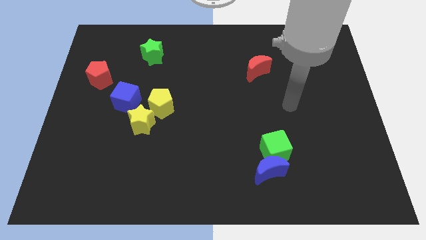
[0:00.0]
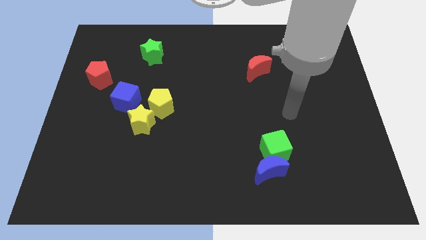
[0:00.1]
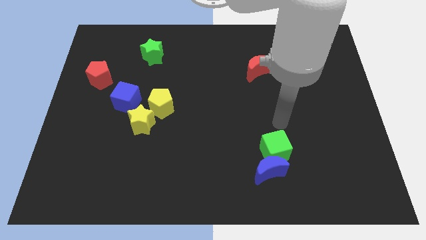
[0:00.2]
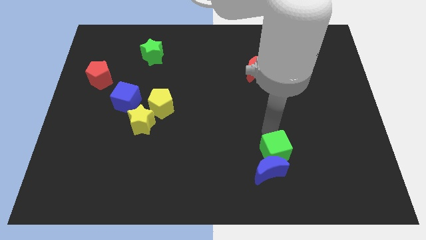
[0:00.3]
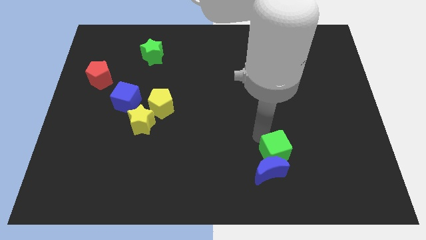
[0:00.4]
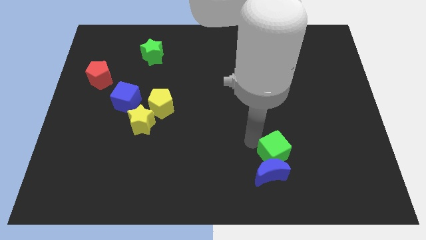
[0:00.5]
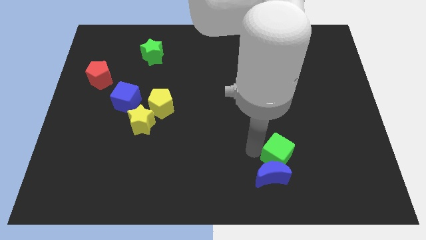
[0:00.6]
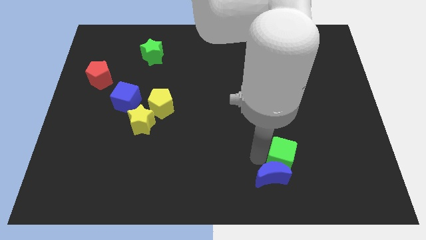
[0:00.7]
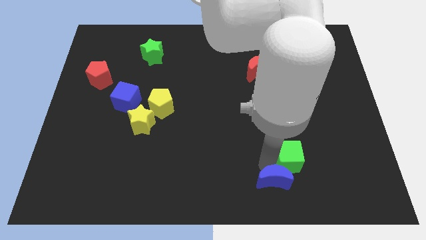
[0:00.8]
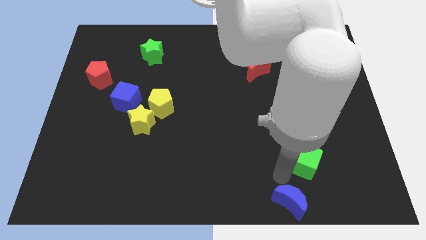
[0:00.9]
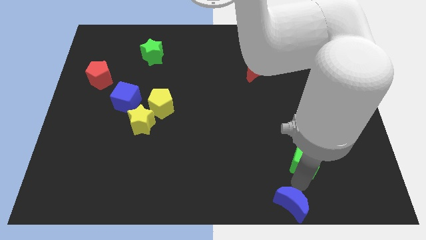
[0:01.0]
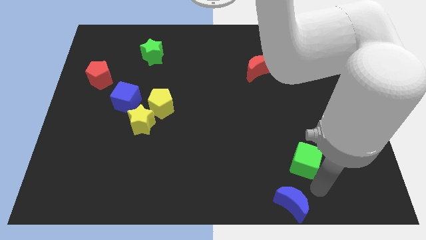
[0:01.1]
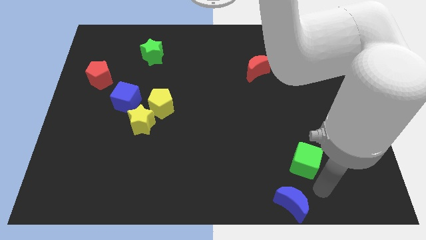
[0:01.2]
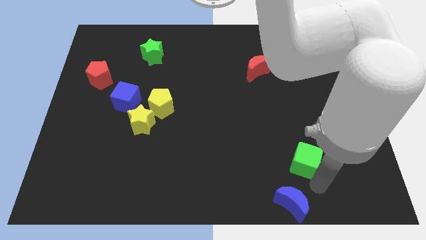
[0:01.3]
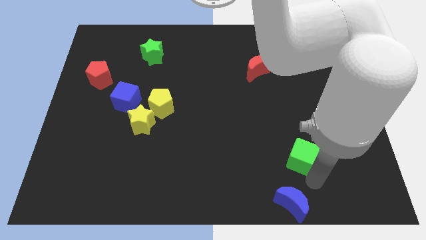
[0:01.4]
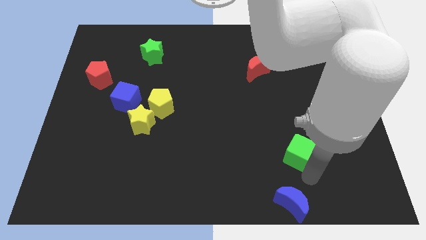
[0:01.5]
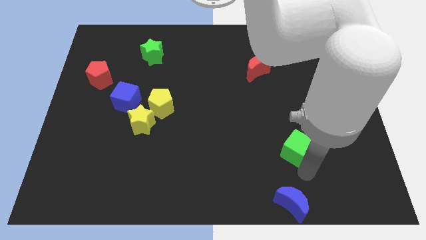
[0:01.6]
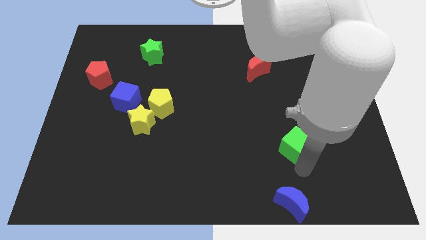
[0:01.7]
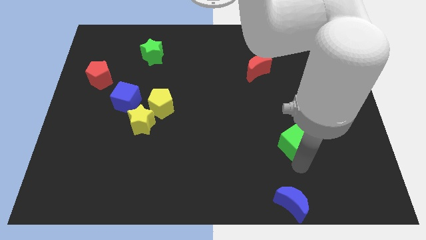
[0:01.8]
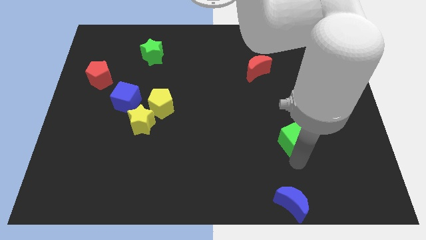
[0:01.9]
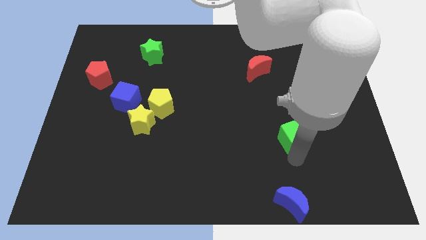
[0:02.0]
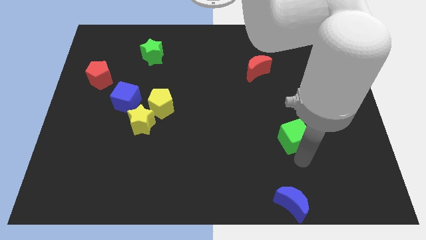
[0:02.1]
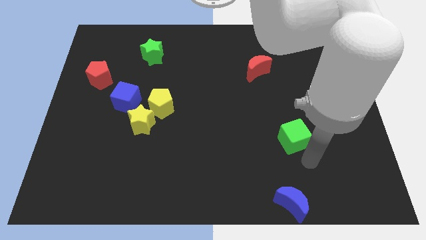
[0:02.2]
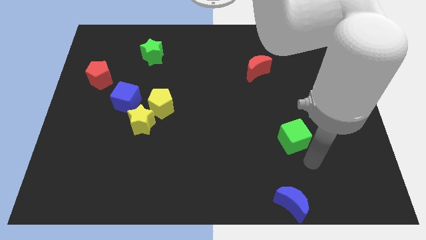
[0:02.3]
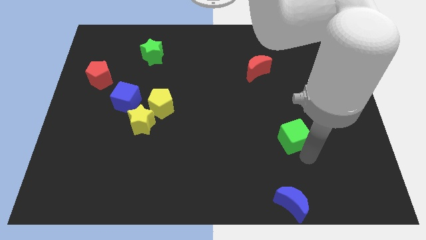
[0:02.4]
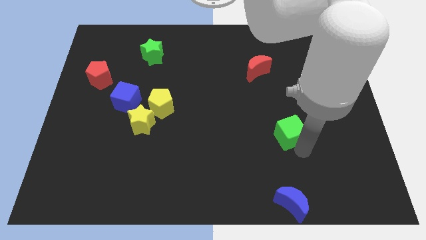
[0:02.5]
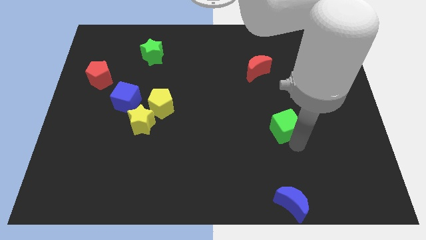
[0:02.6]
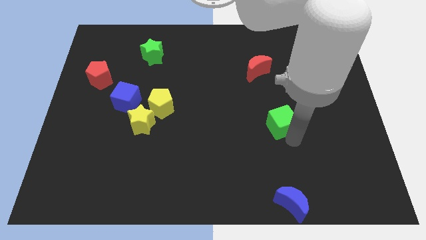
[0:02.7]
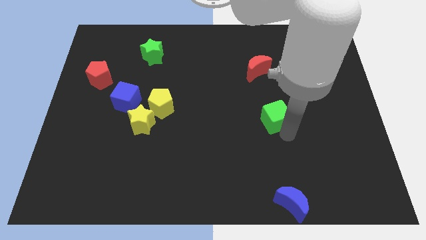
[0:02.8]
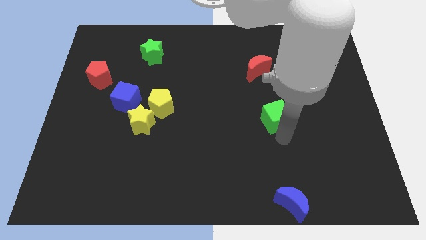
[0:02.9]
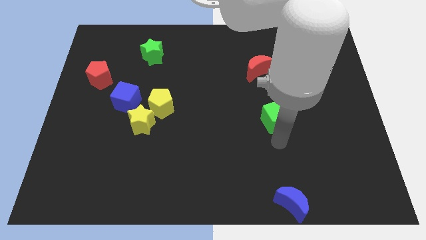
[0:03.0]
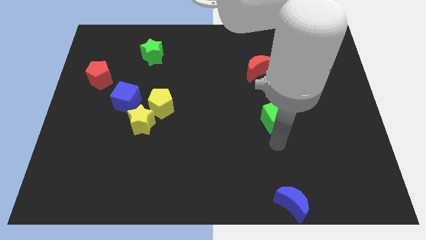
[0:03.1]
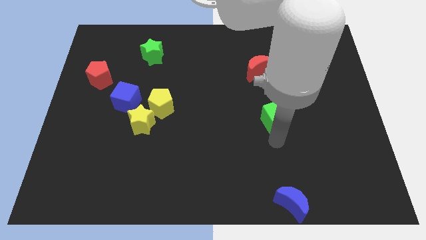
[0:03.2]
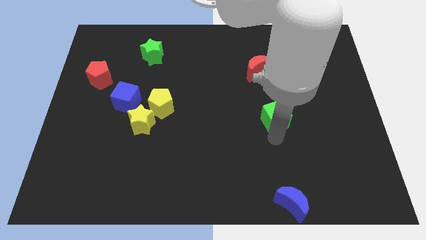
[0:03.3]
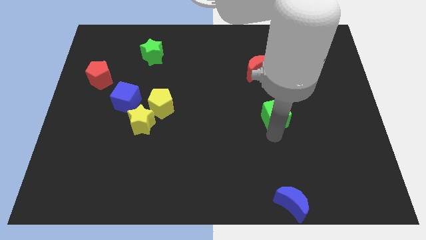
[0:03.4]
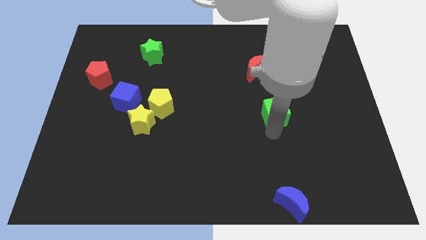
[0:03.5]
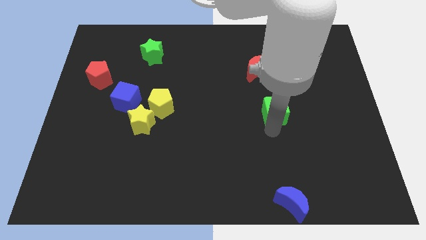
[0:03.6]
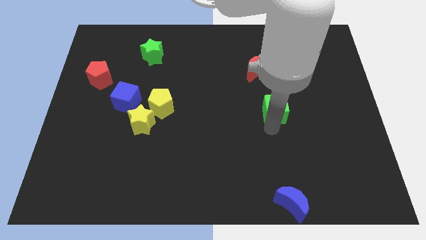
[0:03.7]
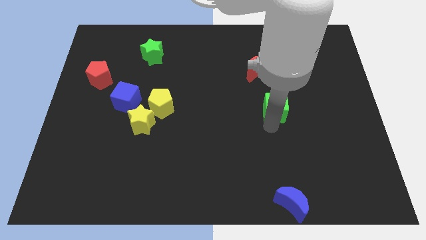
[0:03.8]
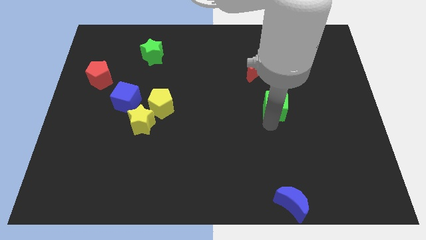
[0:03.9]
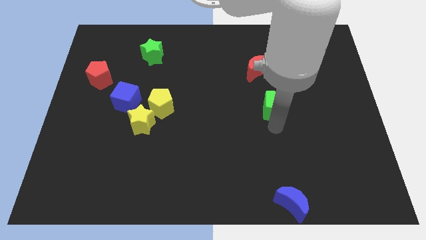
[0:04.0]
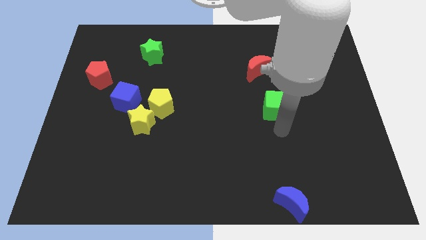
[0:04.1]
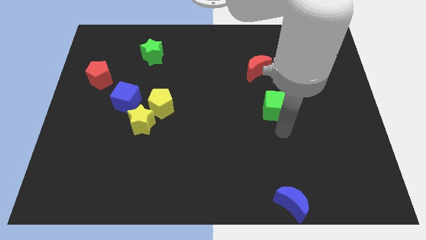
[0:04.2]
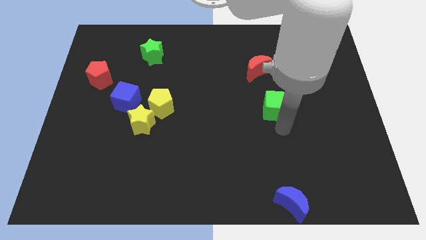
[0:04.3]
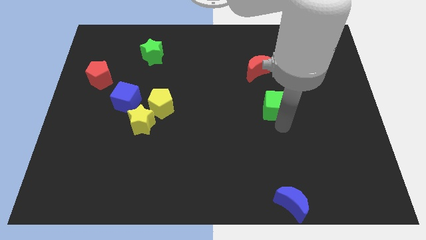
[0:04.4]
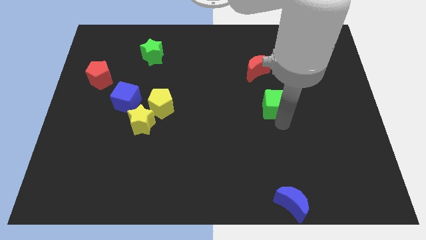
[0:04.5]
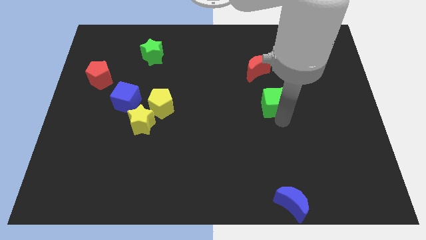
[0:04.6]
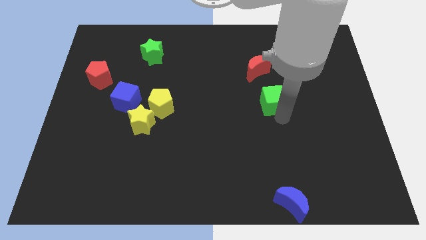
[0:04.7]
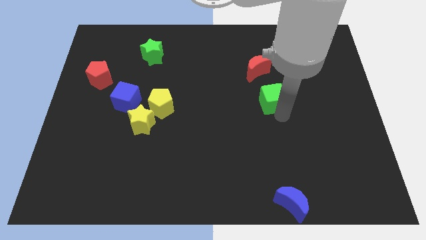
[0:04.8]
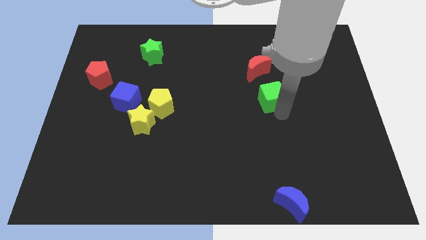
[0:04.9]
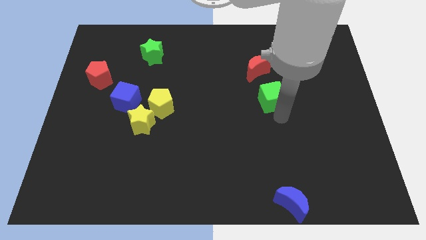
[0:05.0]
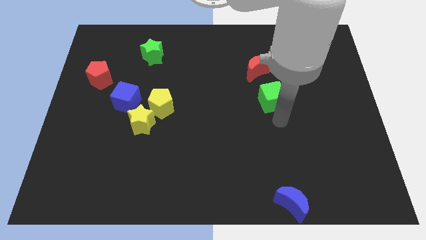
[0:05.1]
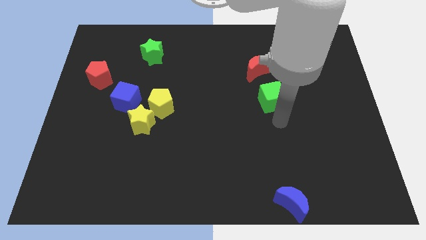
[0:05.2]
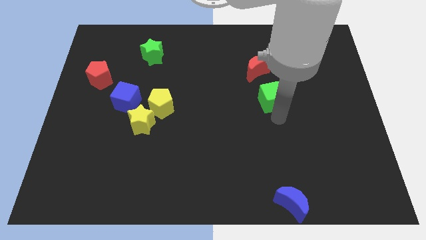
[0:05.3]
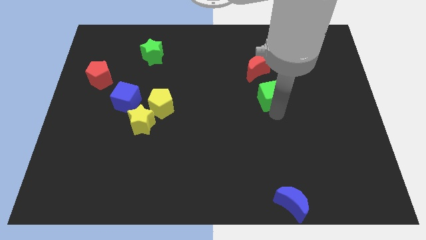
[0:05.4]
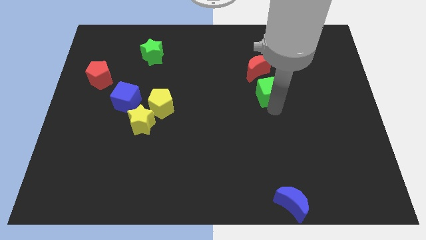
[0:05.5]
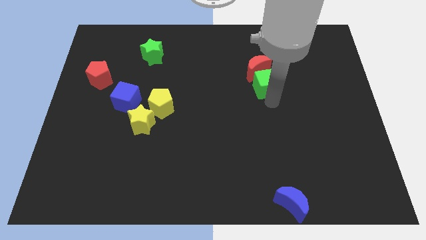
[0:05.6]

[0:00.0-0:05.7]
slide the green cube close to the red moon

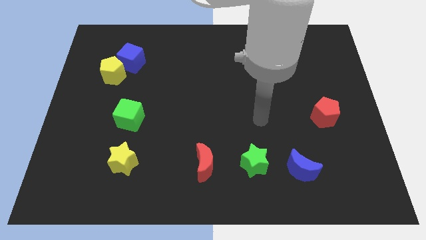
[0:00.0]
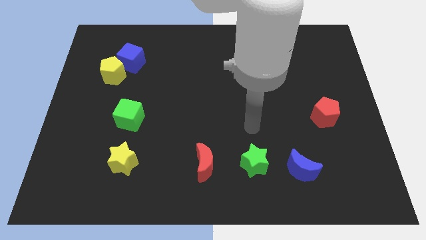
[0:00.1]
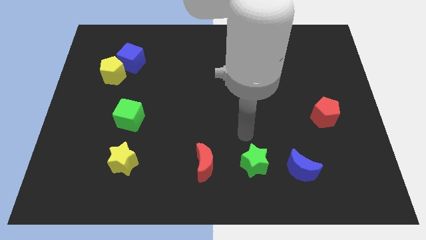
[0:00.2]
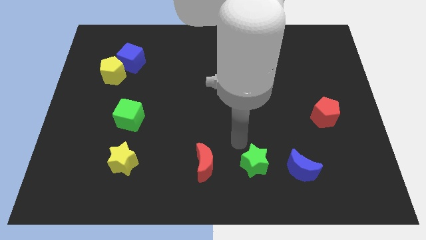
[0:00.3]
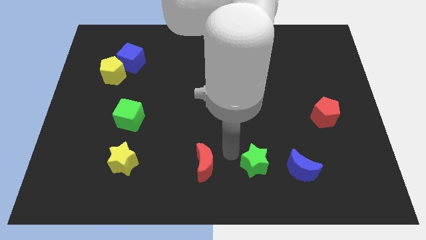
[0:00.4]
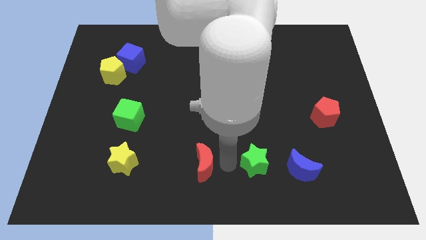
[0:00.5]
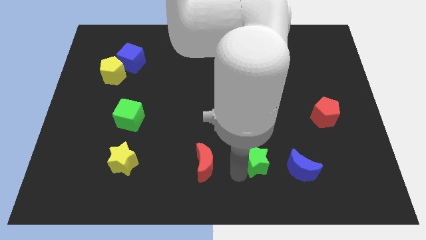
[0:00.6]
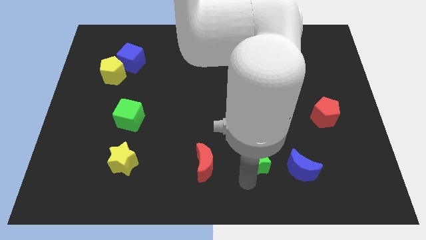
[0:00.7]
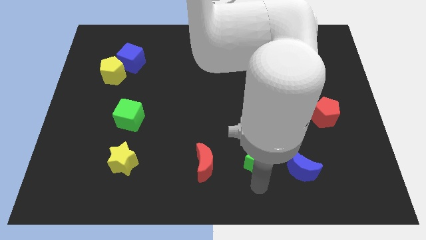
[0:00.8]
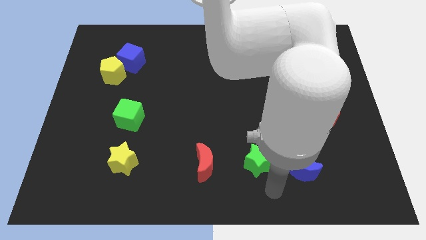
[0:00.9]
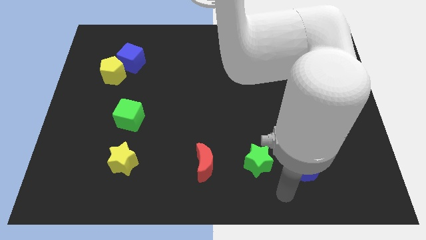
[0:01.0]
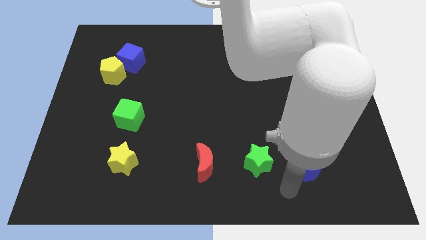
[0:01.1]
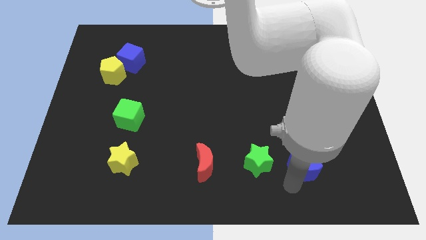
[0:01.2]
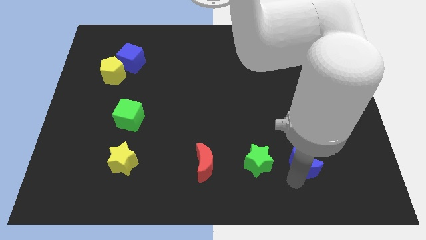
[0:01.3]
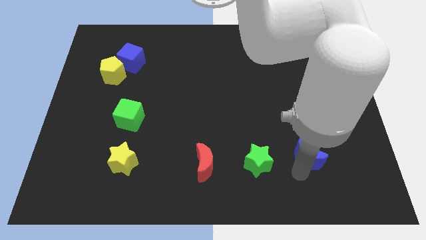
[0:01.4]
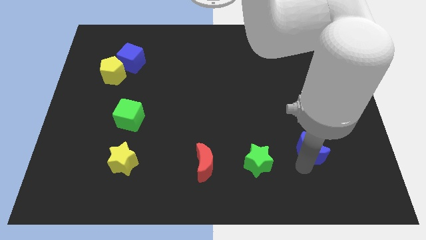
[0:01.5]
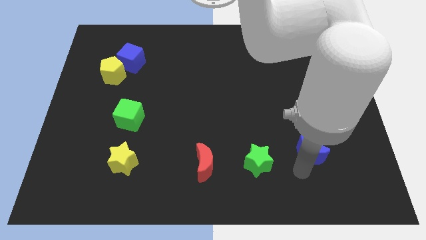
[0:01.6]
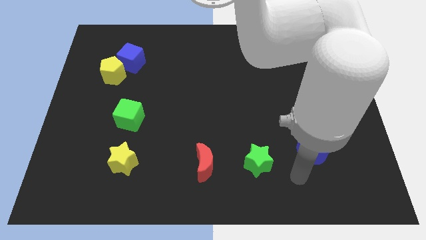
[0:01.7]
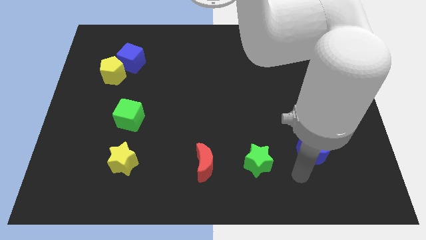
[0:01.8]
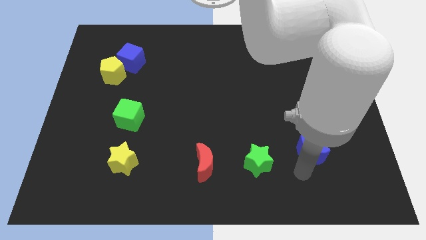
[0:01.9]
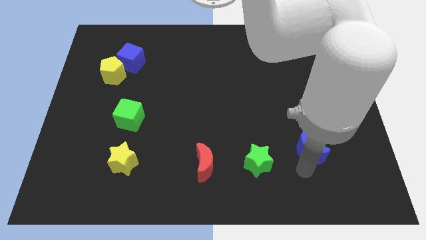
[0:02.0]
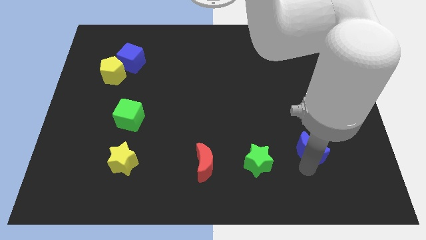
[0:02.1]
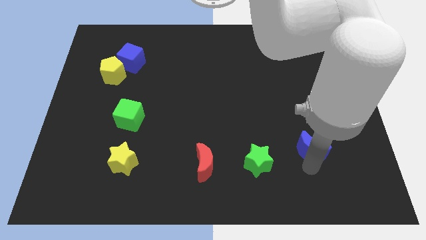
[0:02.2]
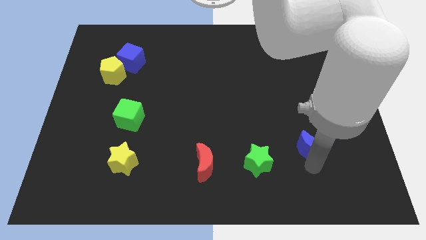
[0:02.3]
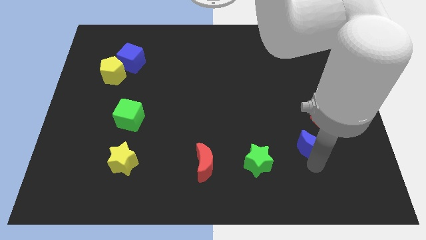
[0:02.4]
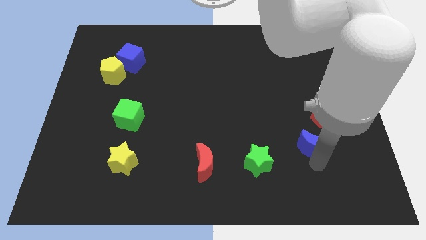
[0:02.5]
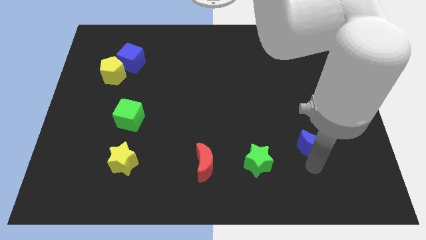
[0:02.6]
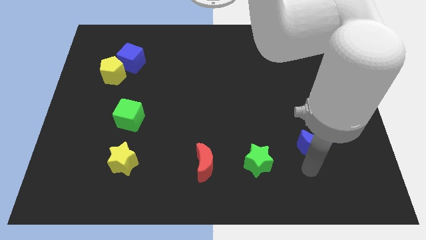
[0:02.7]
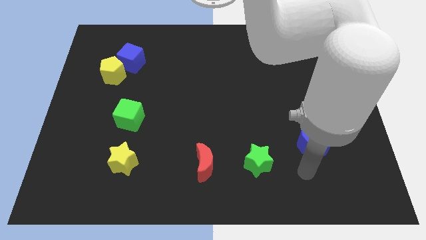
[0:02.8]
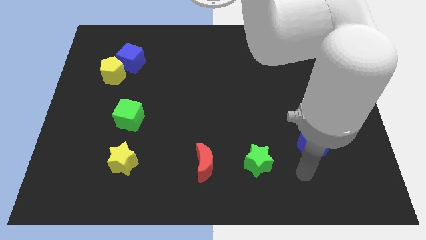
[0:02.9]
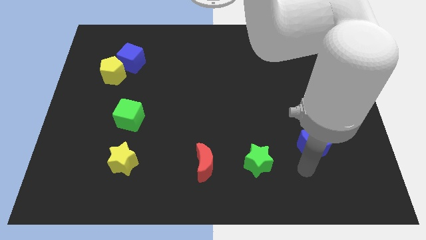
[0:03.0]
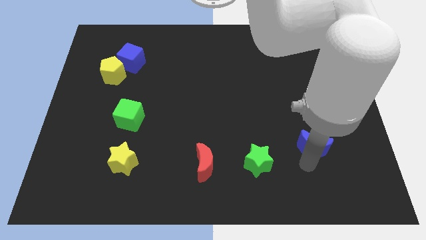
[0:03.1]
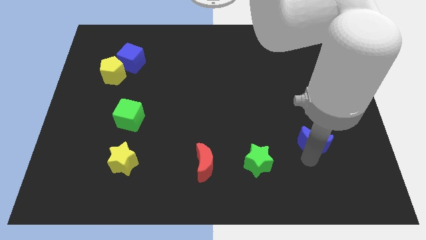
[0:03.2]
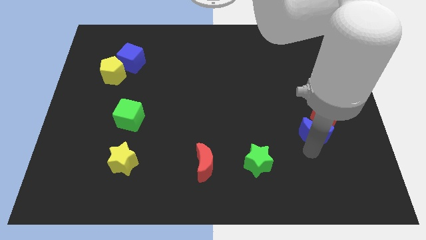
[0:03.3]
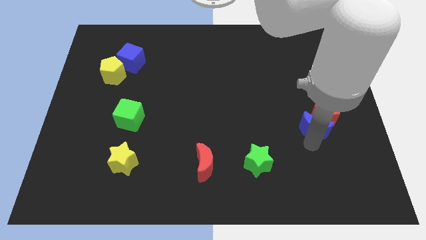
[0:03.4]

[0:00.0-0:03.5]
put the blue moon next to the red pentagon
